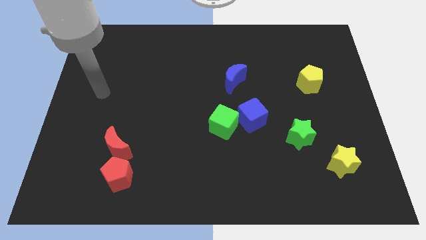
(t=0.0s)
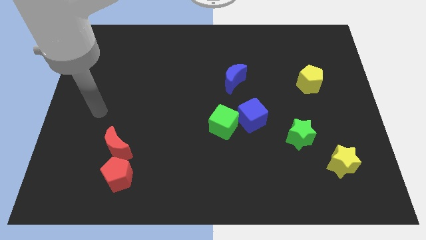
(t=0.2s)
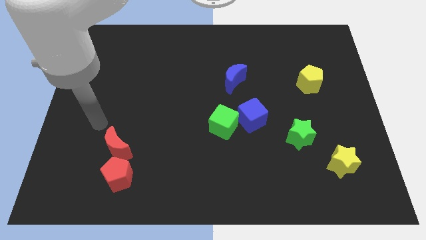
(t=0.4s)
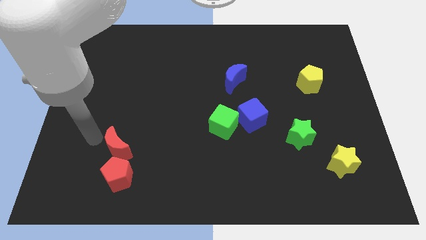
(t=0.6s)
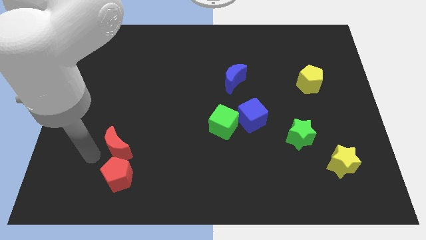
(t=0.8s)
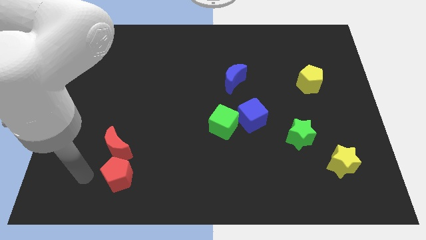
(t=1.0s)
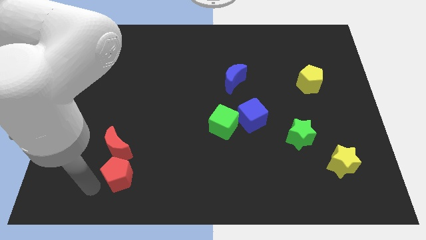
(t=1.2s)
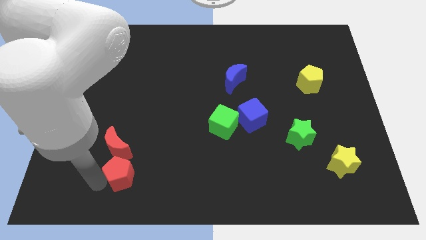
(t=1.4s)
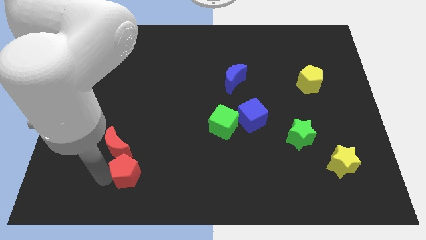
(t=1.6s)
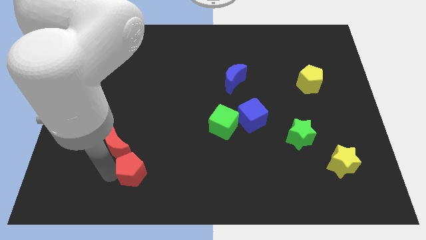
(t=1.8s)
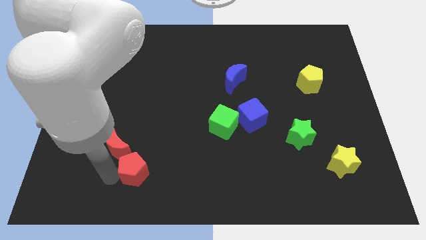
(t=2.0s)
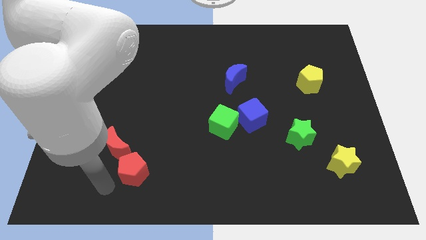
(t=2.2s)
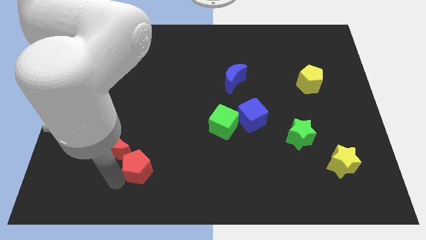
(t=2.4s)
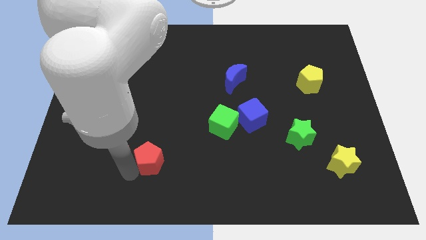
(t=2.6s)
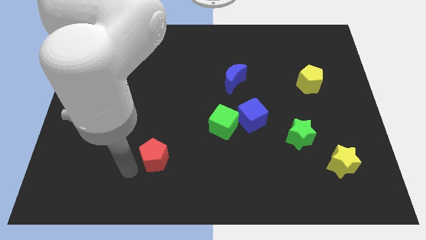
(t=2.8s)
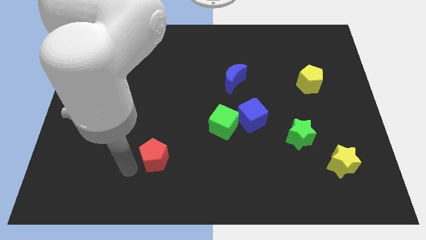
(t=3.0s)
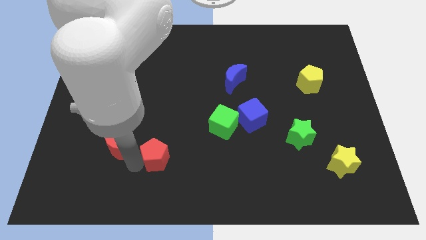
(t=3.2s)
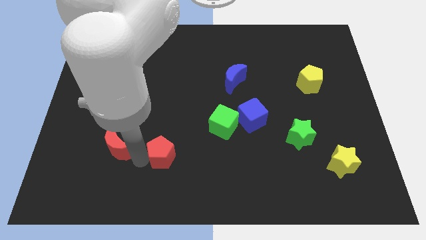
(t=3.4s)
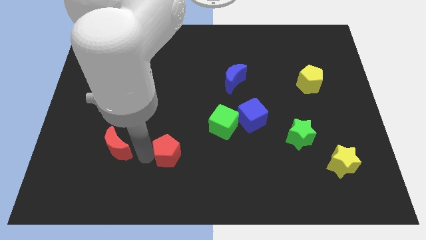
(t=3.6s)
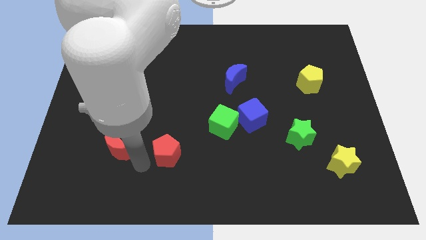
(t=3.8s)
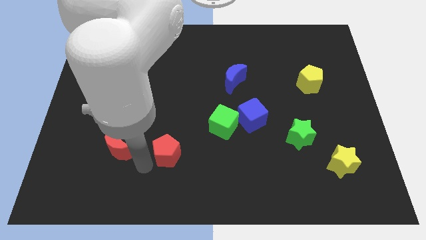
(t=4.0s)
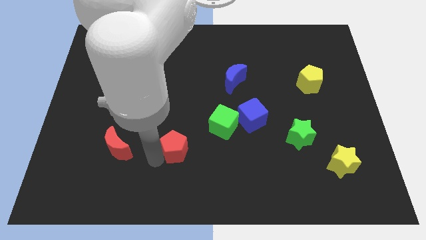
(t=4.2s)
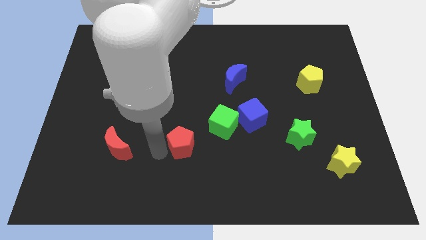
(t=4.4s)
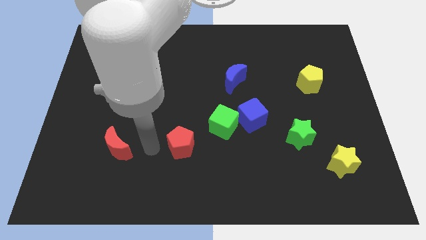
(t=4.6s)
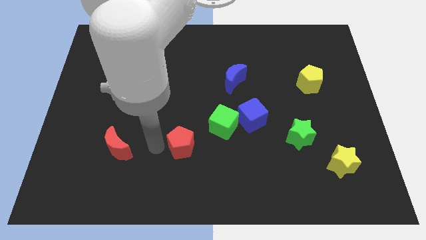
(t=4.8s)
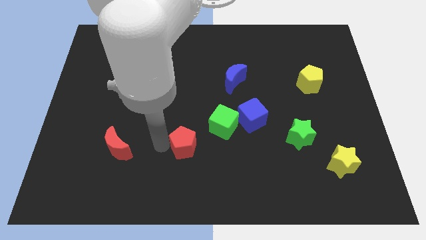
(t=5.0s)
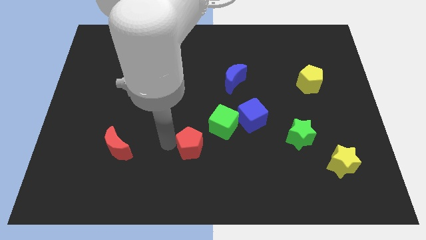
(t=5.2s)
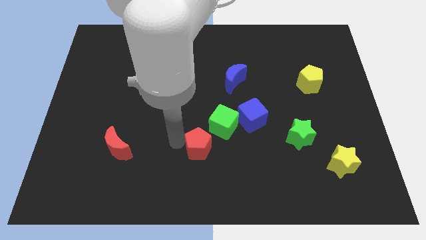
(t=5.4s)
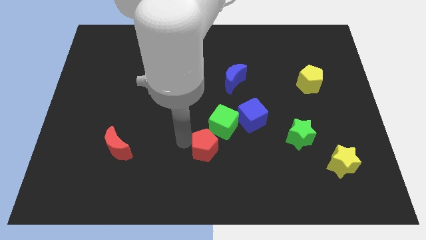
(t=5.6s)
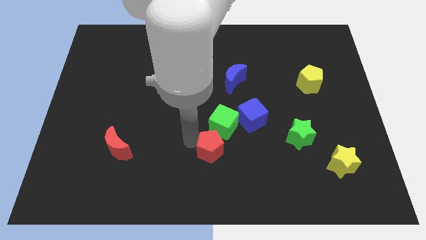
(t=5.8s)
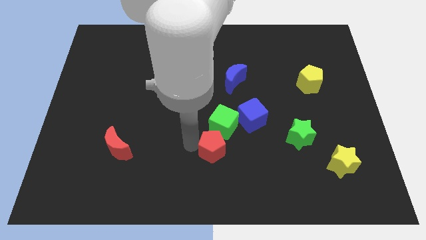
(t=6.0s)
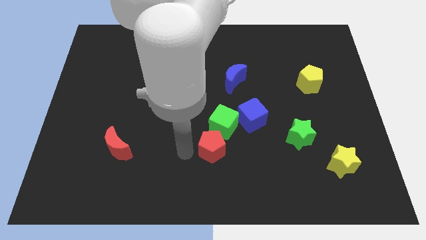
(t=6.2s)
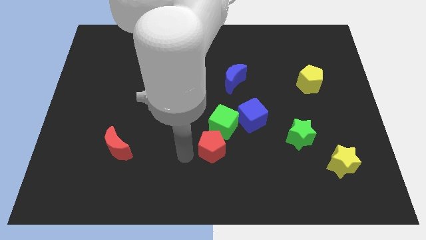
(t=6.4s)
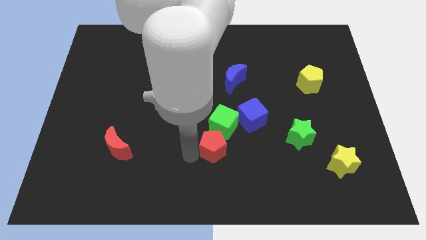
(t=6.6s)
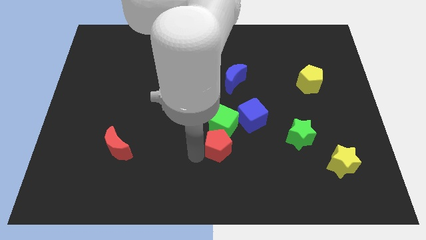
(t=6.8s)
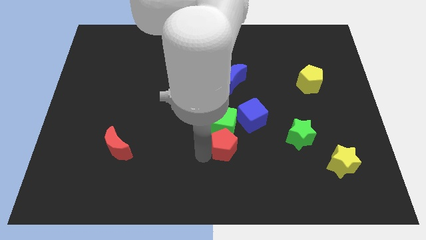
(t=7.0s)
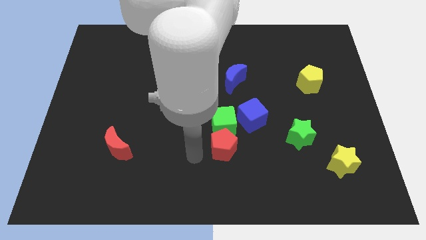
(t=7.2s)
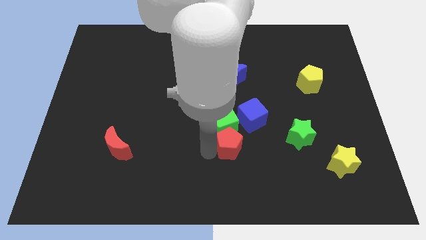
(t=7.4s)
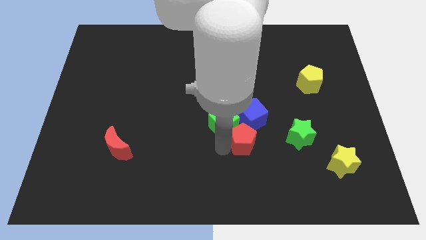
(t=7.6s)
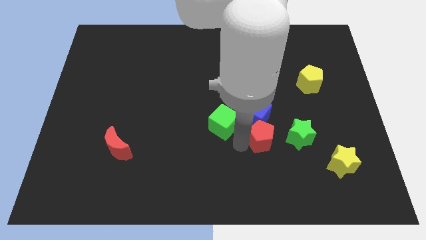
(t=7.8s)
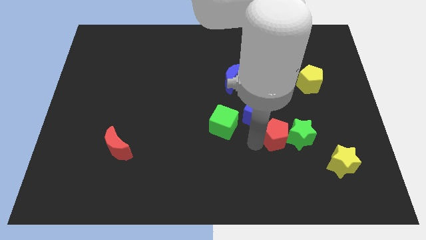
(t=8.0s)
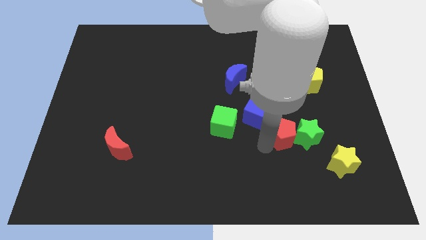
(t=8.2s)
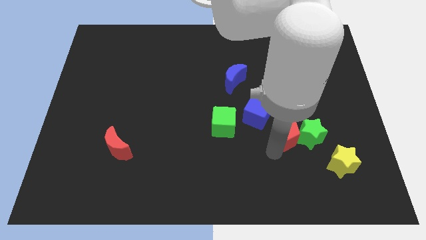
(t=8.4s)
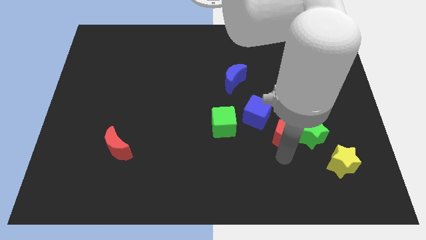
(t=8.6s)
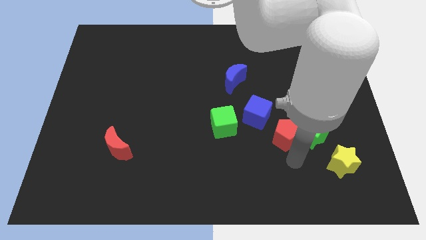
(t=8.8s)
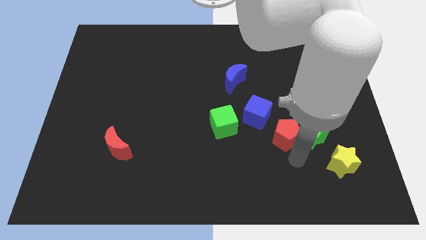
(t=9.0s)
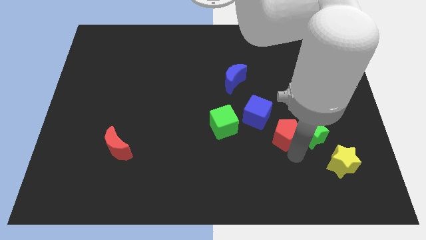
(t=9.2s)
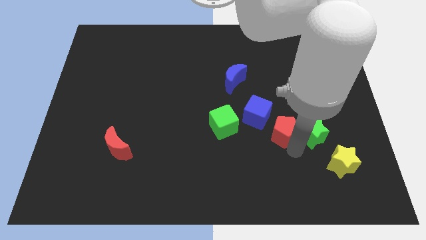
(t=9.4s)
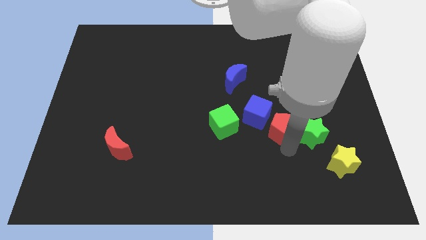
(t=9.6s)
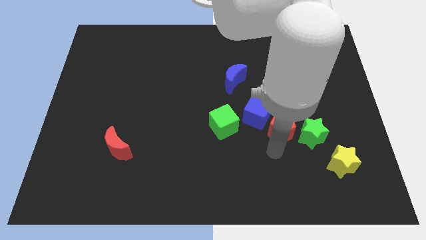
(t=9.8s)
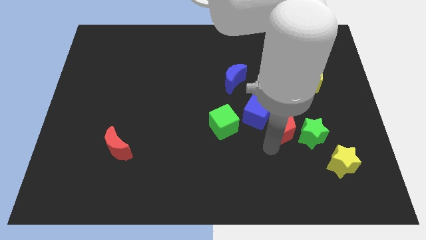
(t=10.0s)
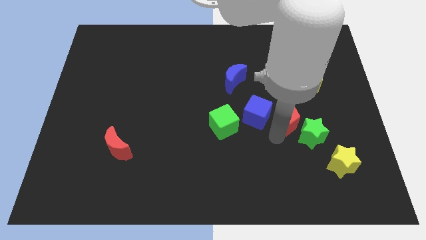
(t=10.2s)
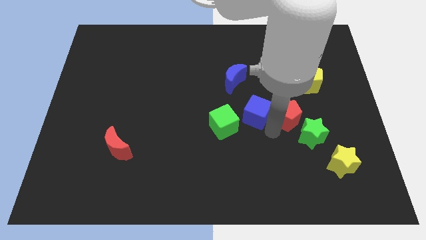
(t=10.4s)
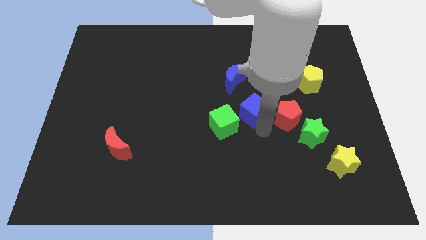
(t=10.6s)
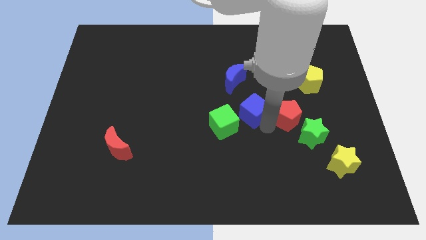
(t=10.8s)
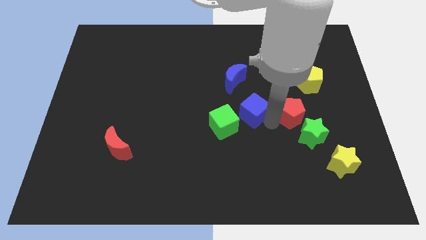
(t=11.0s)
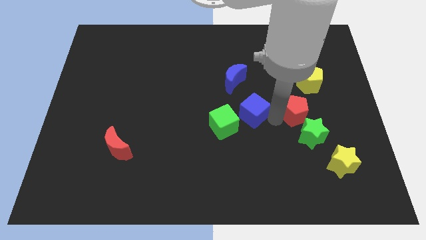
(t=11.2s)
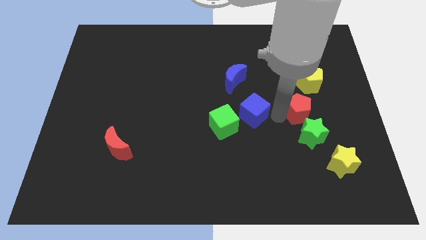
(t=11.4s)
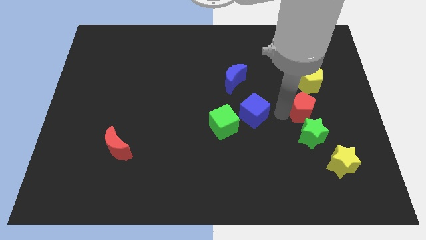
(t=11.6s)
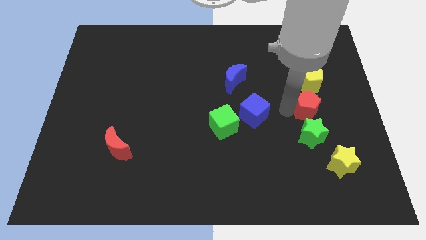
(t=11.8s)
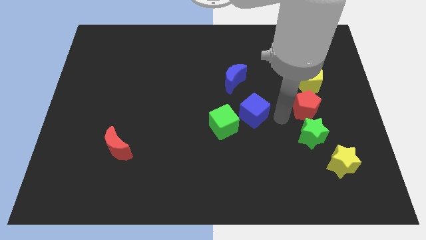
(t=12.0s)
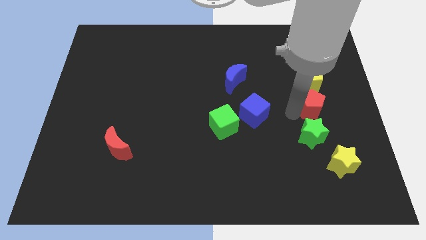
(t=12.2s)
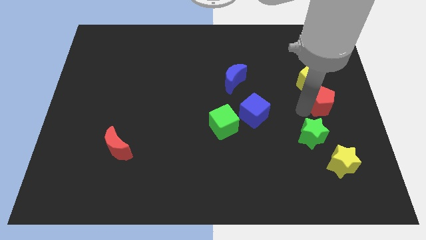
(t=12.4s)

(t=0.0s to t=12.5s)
put the red pentagon to the center right
